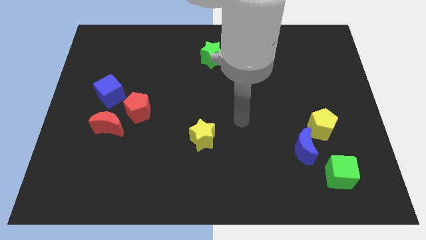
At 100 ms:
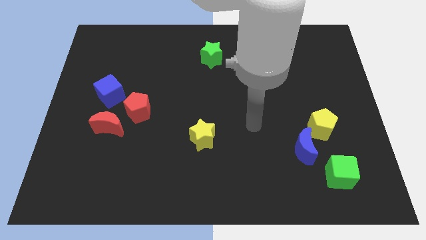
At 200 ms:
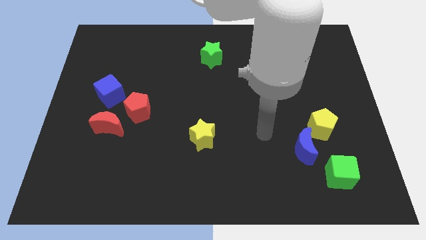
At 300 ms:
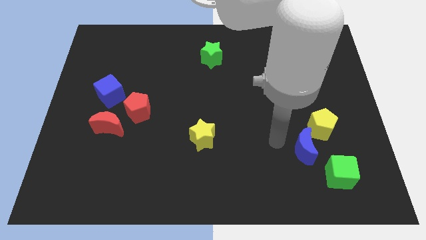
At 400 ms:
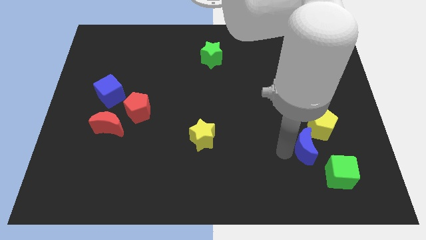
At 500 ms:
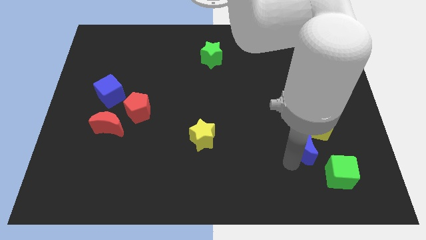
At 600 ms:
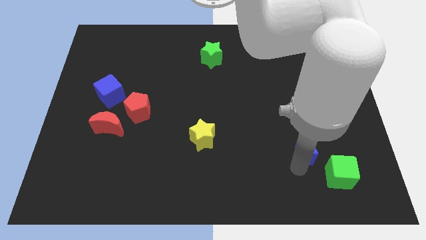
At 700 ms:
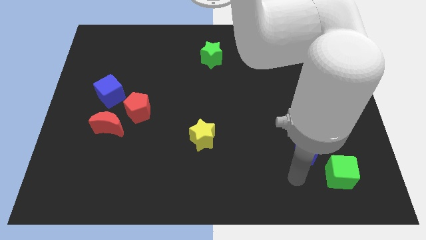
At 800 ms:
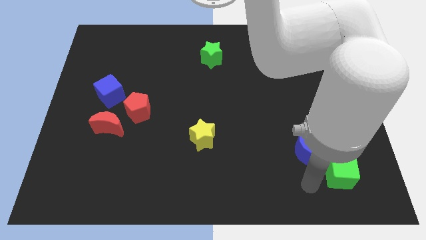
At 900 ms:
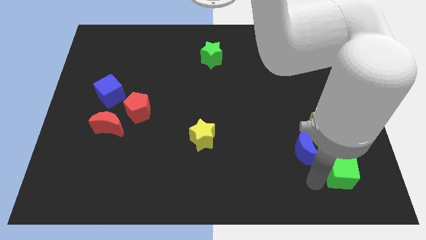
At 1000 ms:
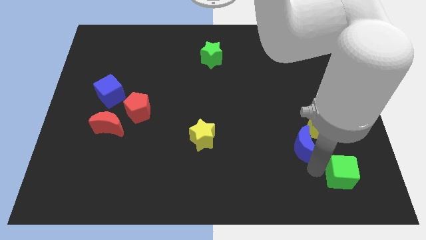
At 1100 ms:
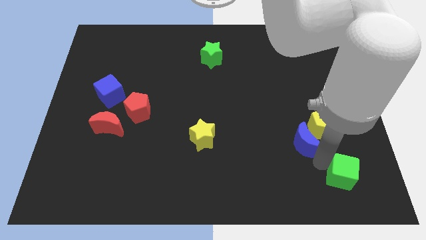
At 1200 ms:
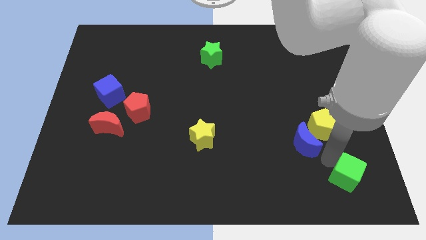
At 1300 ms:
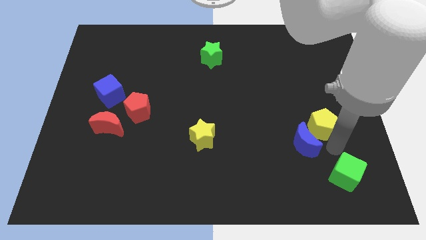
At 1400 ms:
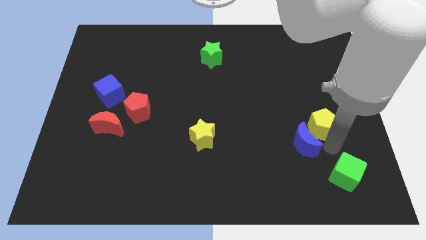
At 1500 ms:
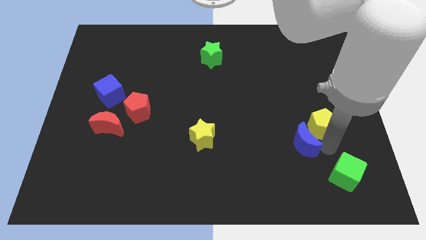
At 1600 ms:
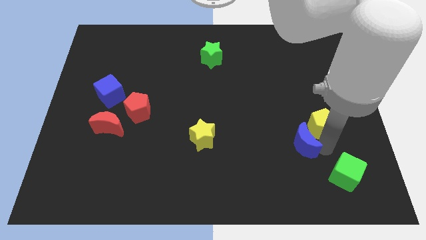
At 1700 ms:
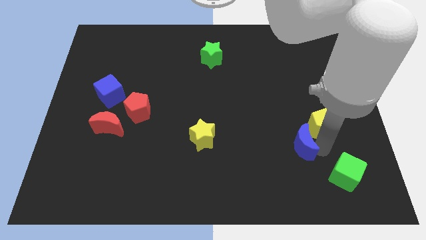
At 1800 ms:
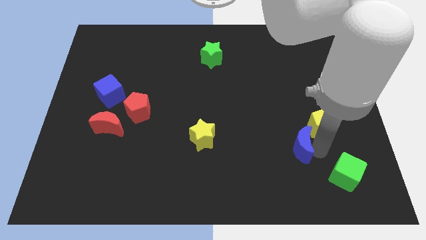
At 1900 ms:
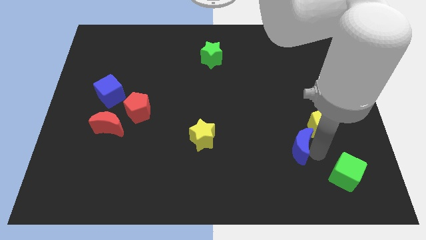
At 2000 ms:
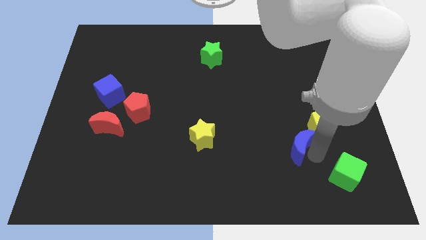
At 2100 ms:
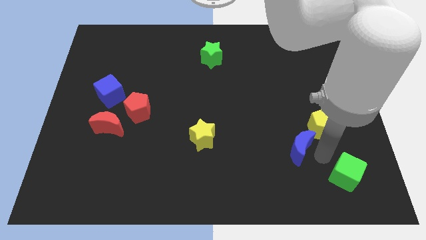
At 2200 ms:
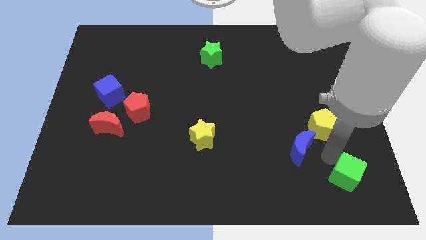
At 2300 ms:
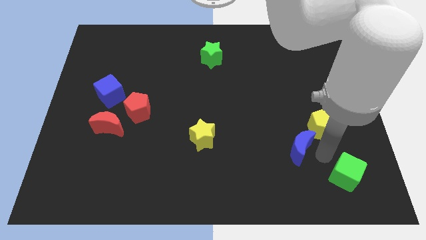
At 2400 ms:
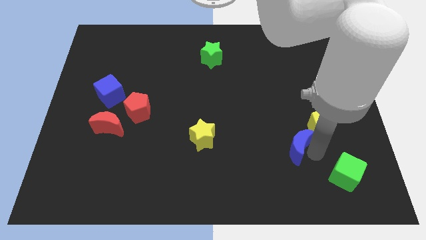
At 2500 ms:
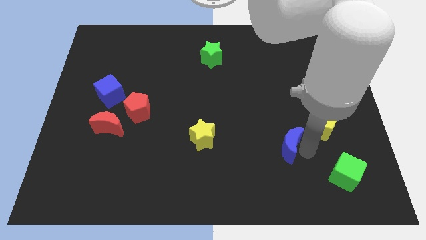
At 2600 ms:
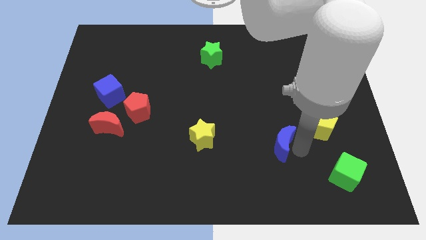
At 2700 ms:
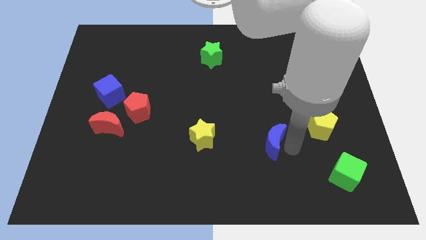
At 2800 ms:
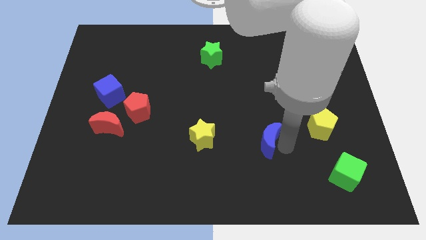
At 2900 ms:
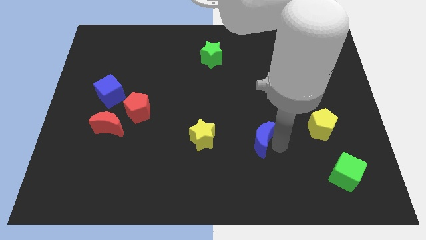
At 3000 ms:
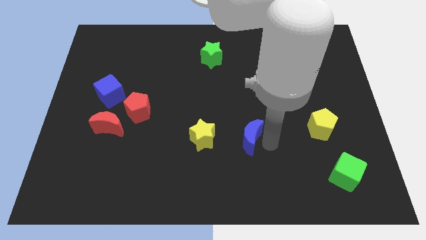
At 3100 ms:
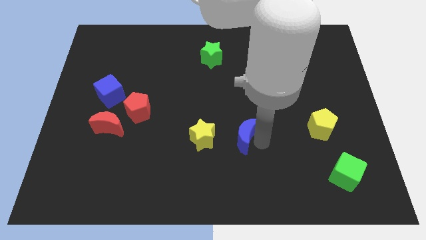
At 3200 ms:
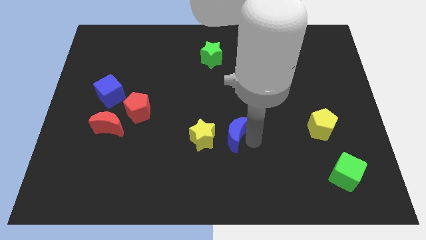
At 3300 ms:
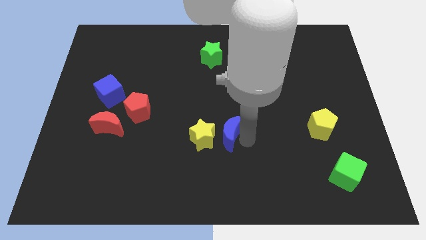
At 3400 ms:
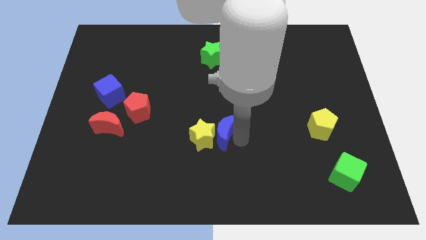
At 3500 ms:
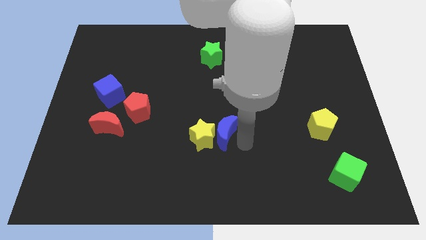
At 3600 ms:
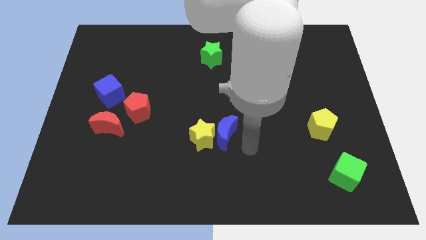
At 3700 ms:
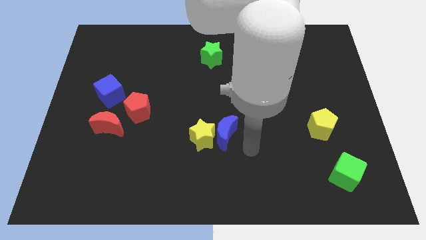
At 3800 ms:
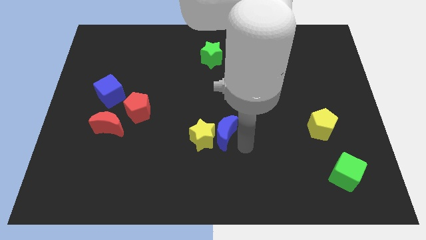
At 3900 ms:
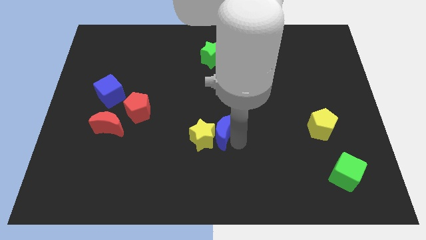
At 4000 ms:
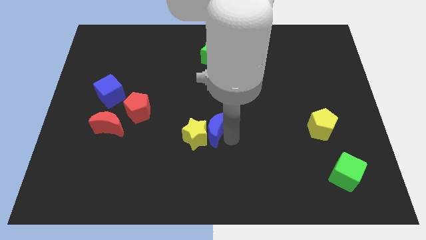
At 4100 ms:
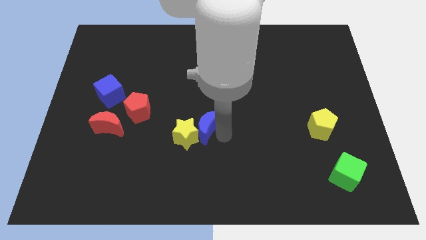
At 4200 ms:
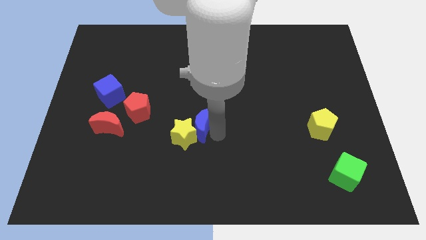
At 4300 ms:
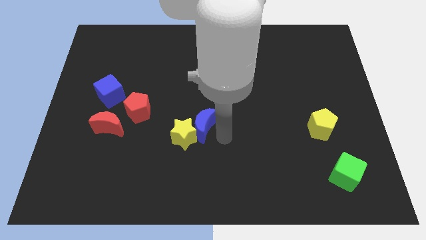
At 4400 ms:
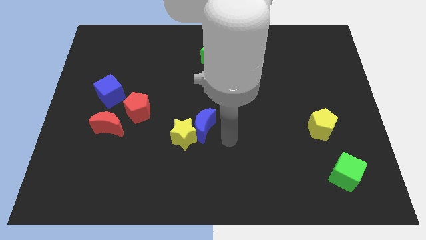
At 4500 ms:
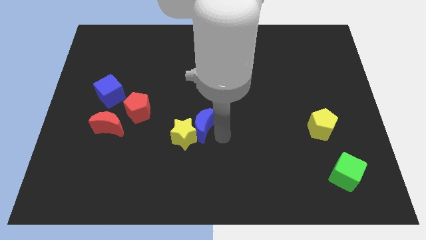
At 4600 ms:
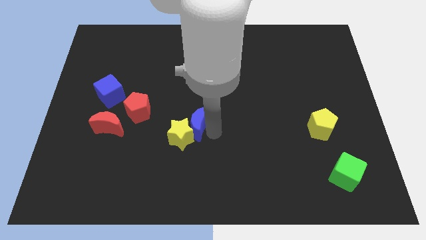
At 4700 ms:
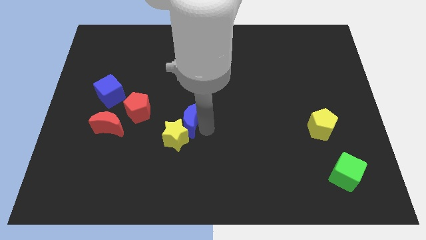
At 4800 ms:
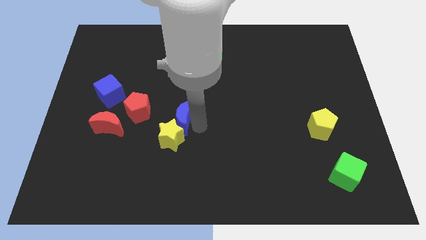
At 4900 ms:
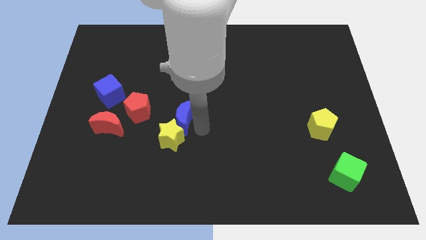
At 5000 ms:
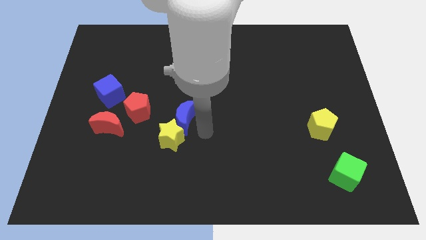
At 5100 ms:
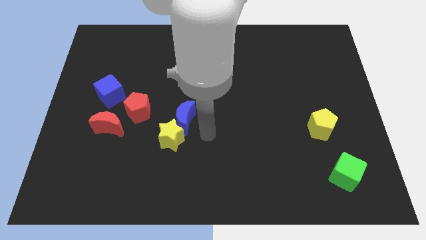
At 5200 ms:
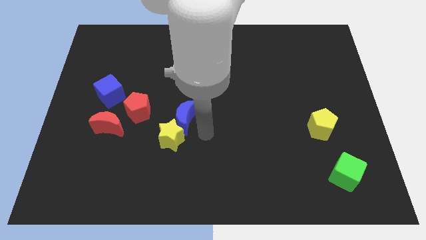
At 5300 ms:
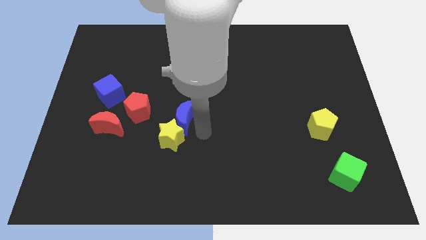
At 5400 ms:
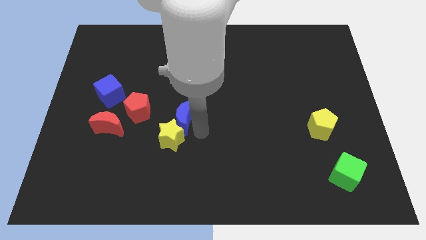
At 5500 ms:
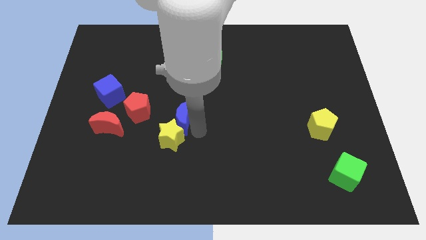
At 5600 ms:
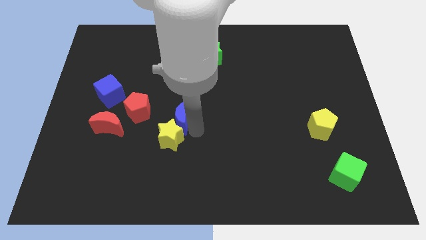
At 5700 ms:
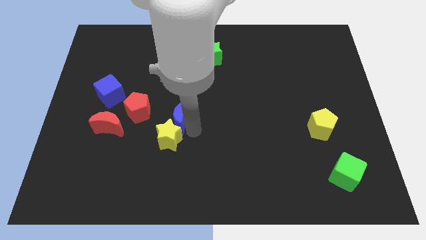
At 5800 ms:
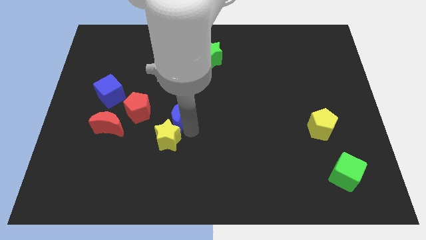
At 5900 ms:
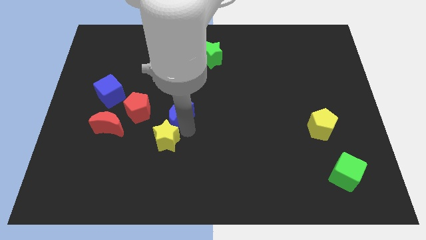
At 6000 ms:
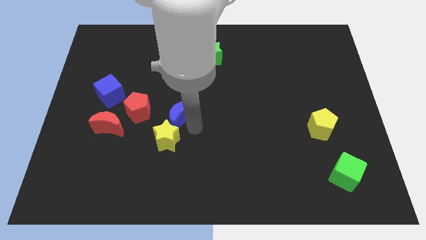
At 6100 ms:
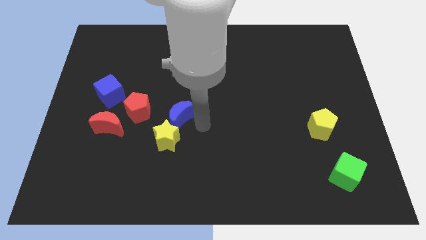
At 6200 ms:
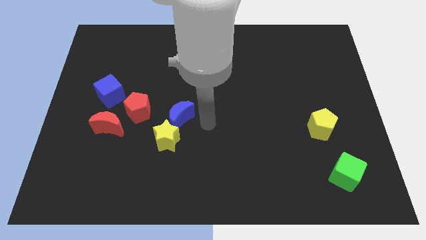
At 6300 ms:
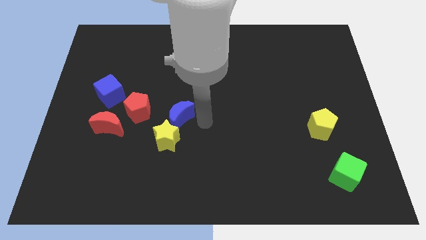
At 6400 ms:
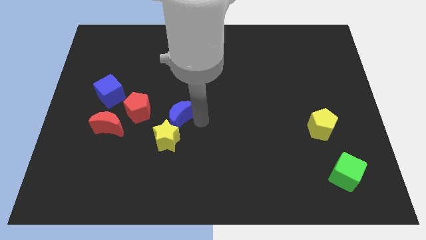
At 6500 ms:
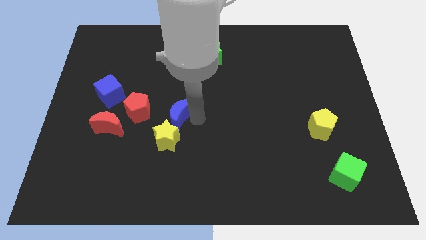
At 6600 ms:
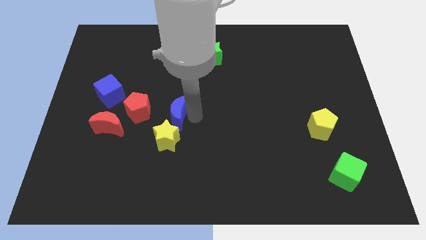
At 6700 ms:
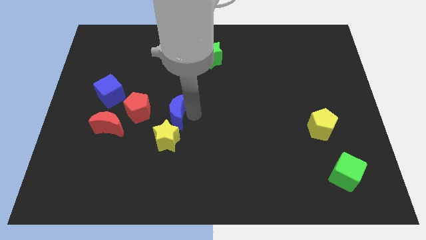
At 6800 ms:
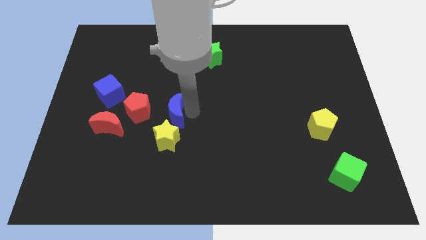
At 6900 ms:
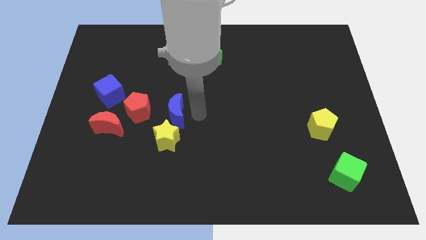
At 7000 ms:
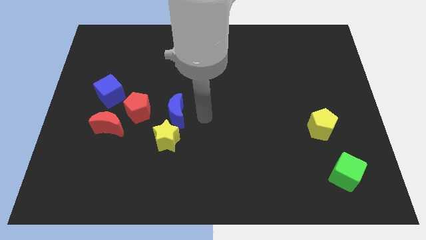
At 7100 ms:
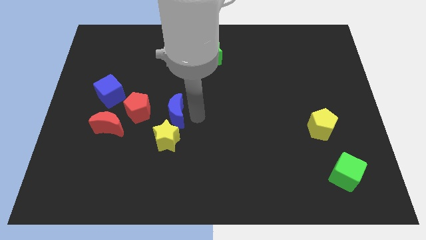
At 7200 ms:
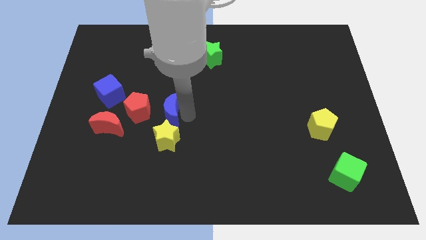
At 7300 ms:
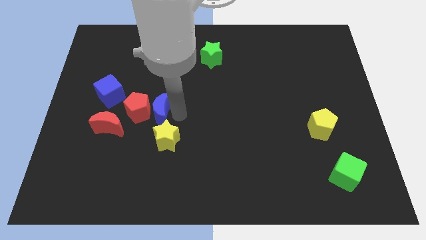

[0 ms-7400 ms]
move the blue moon close to the red pentagon

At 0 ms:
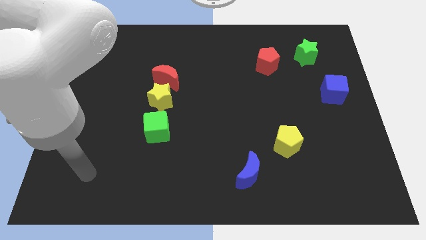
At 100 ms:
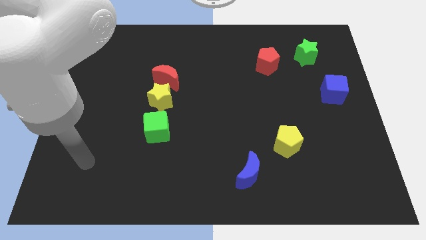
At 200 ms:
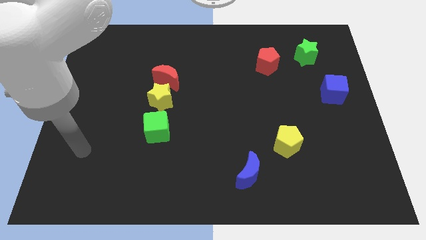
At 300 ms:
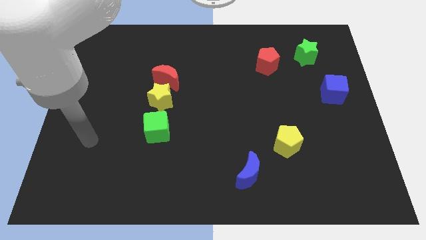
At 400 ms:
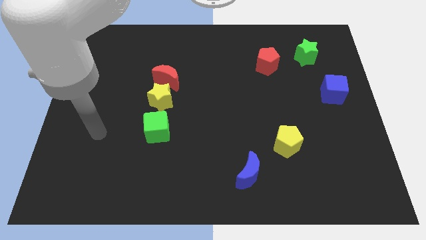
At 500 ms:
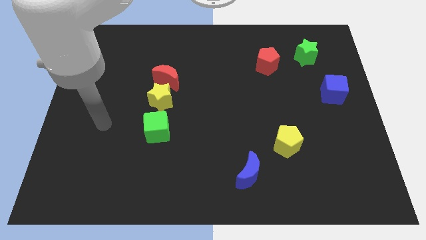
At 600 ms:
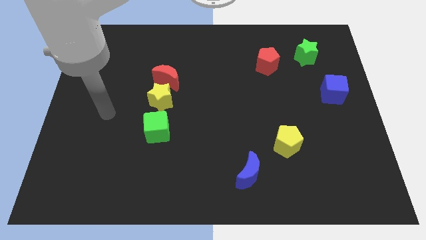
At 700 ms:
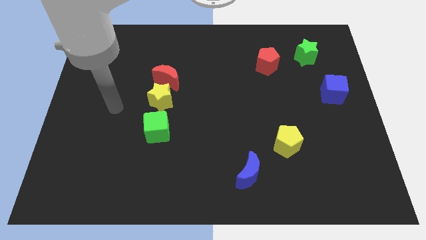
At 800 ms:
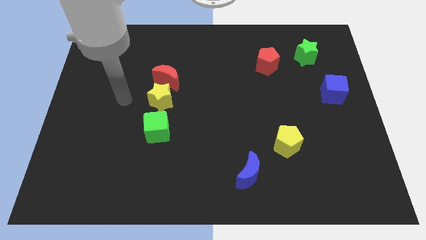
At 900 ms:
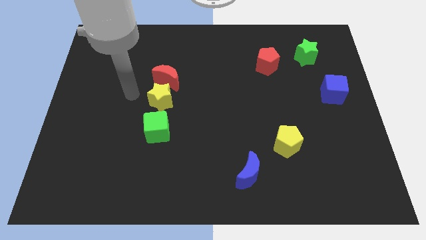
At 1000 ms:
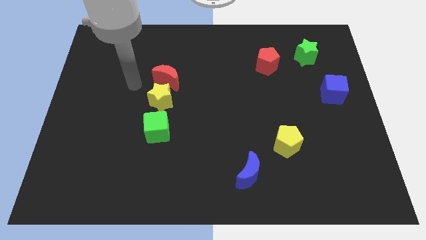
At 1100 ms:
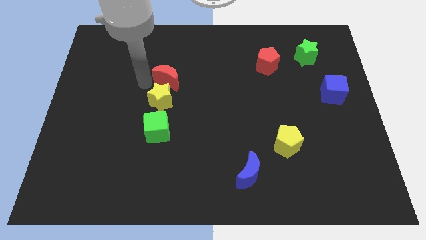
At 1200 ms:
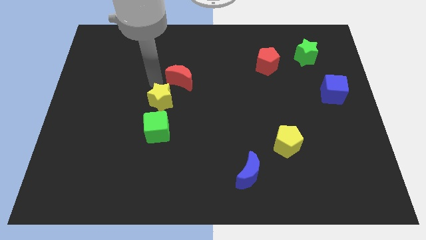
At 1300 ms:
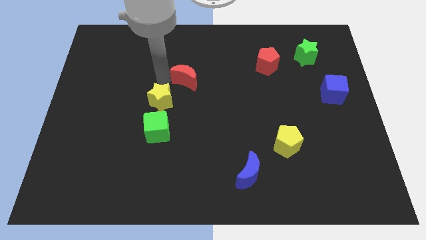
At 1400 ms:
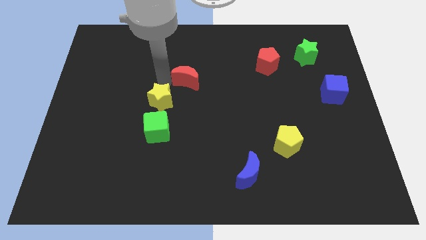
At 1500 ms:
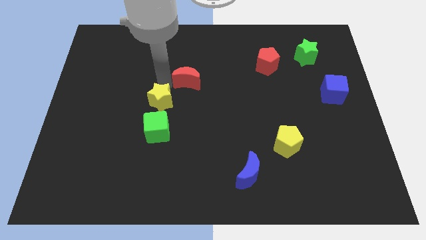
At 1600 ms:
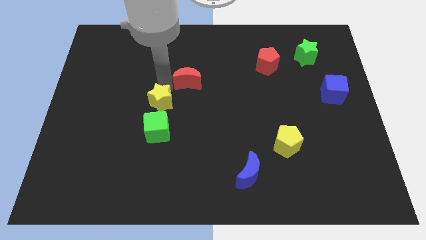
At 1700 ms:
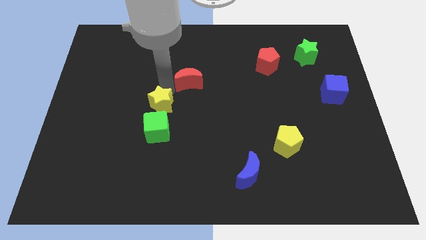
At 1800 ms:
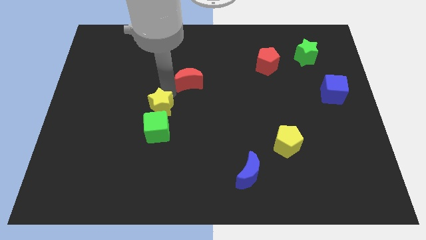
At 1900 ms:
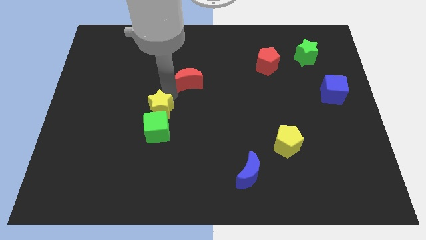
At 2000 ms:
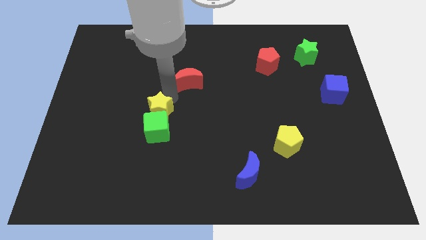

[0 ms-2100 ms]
move the yellow star towards the green cube
